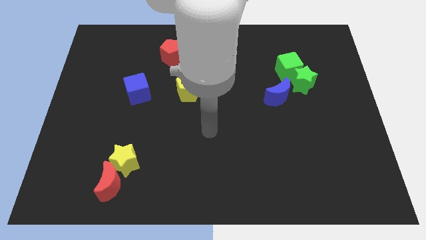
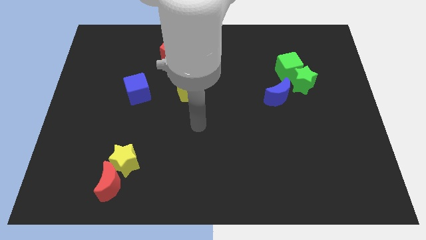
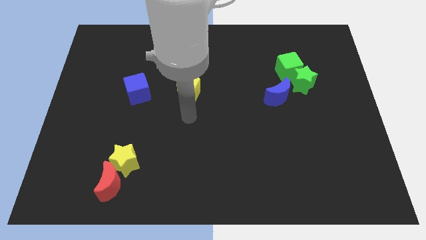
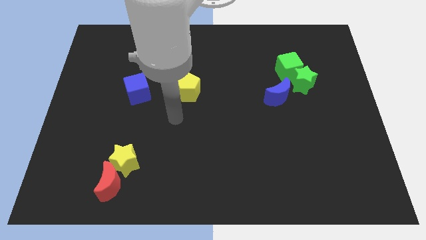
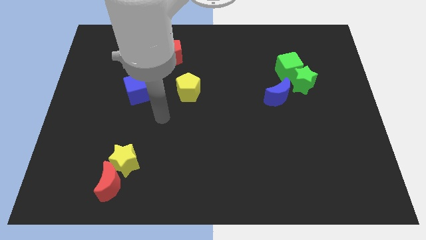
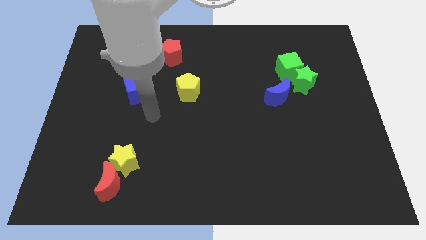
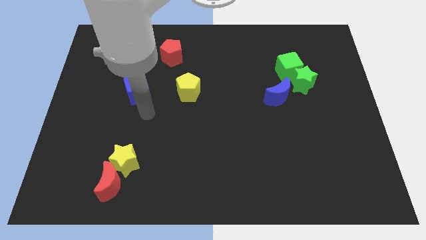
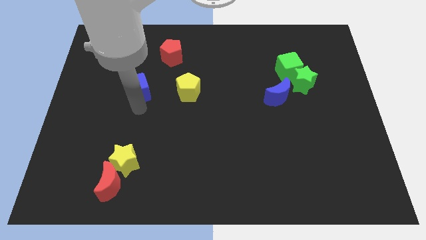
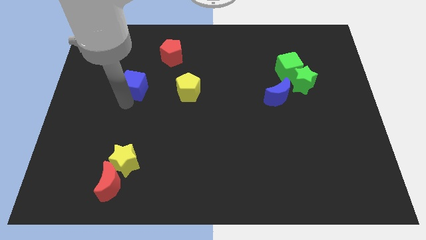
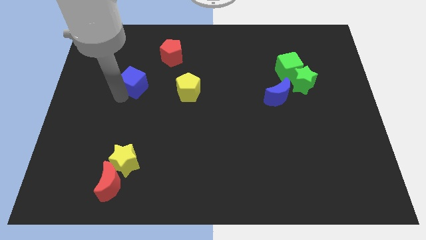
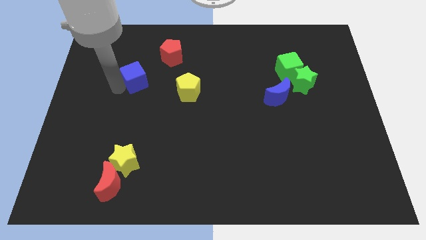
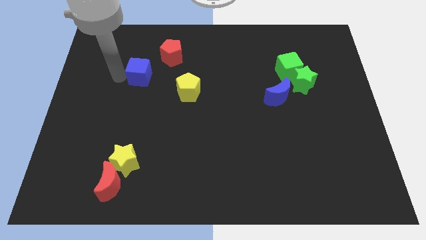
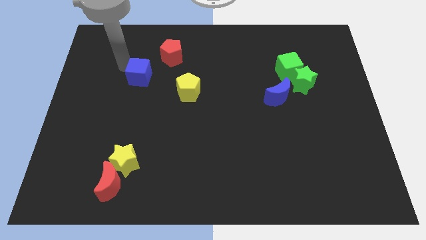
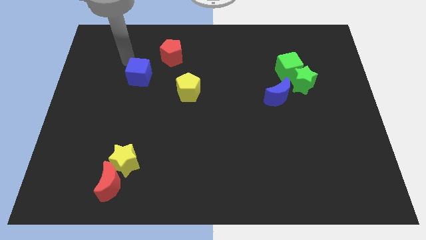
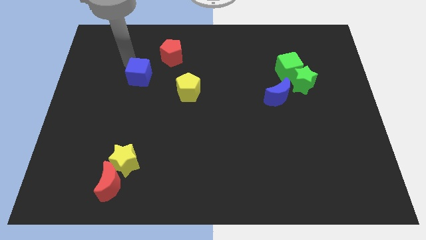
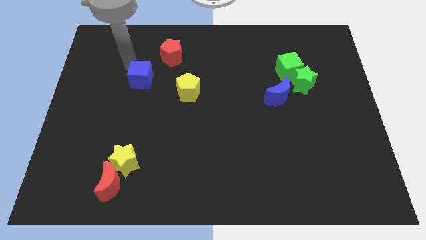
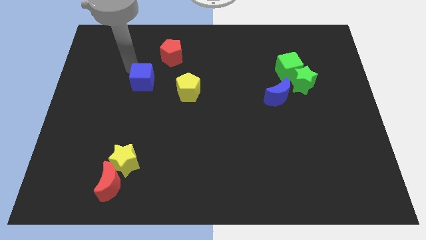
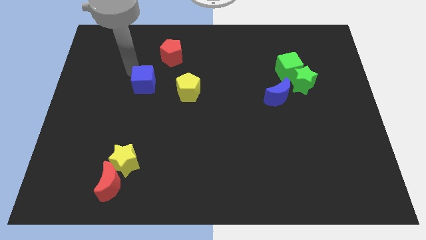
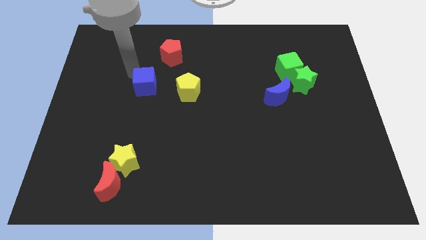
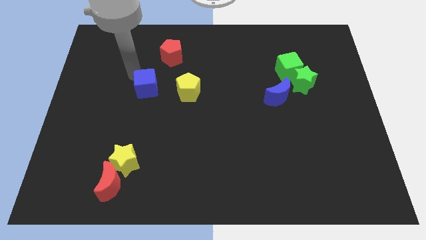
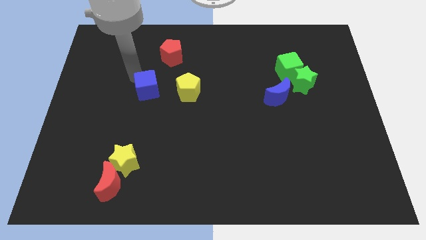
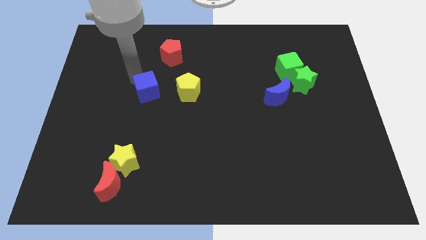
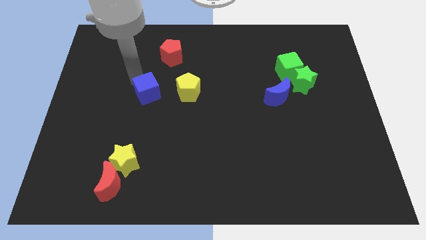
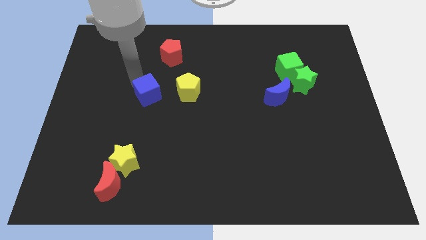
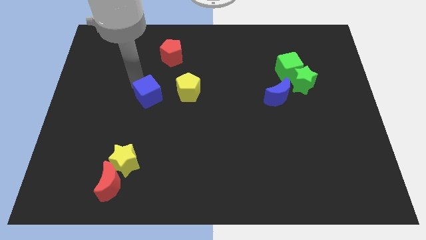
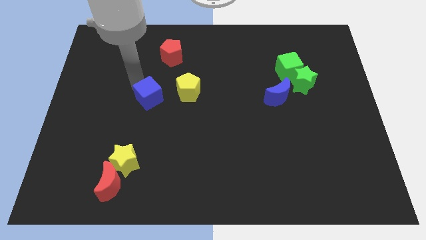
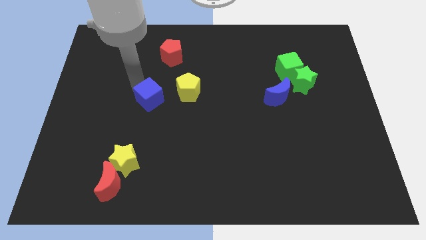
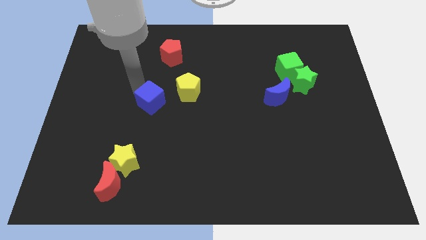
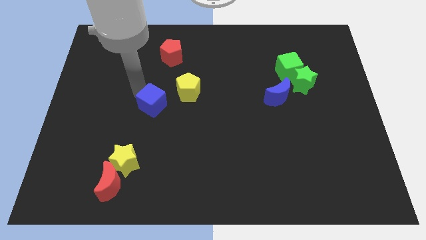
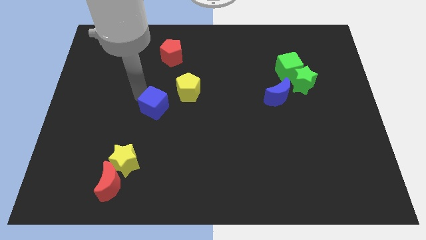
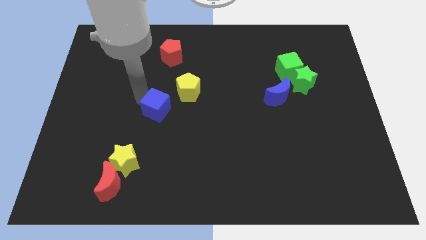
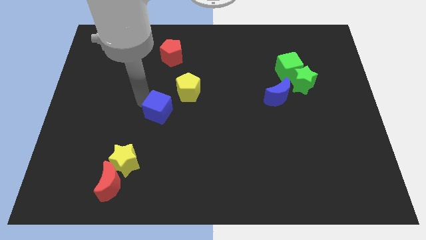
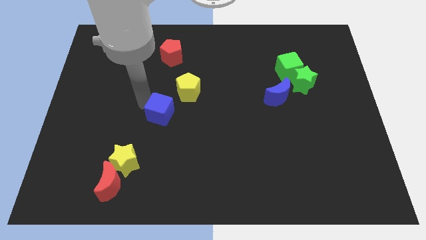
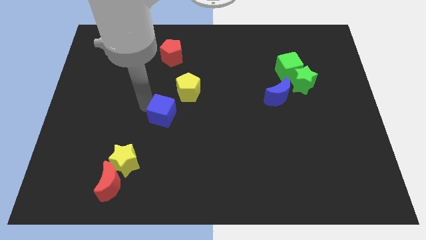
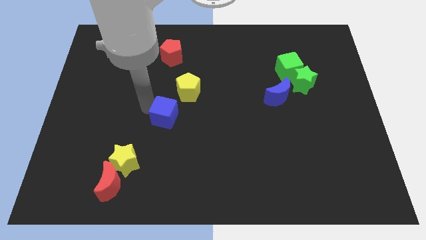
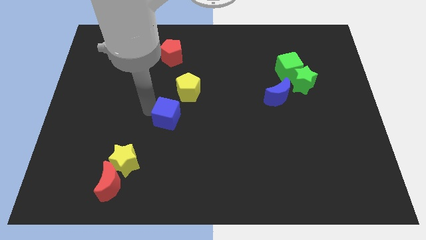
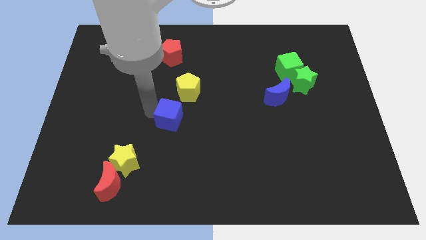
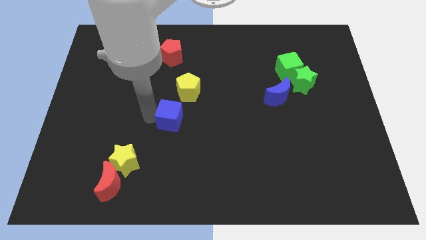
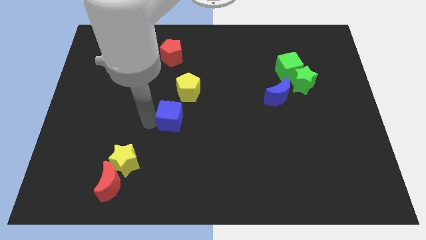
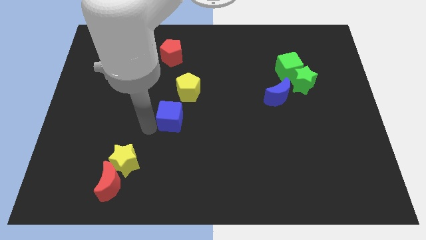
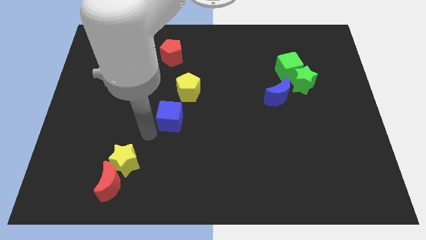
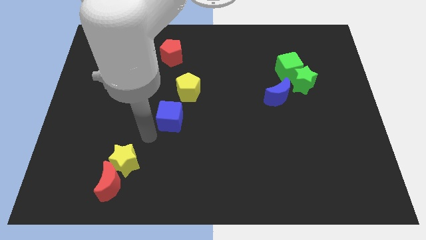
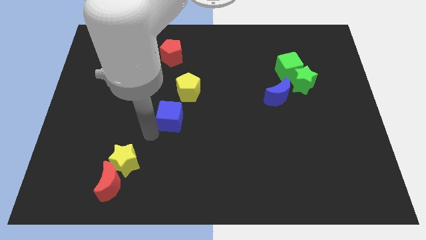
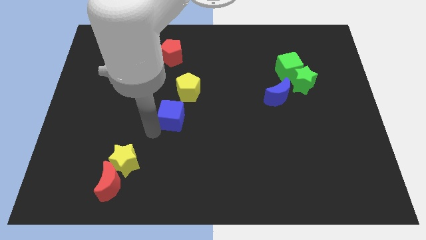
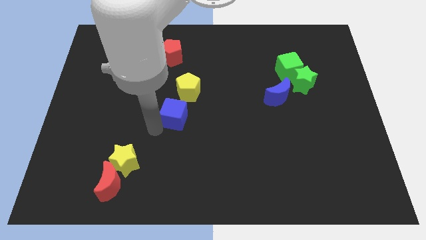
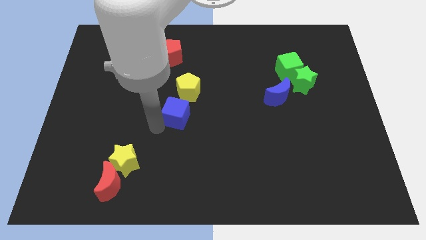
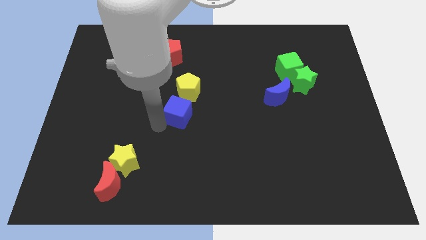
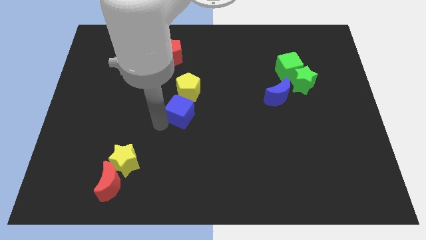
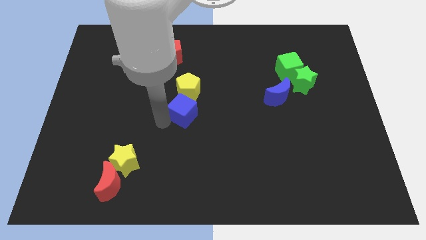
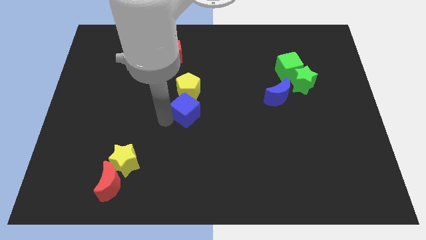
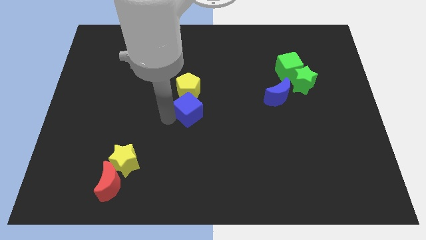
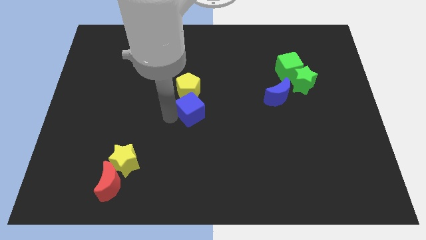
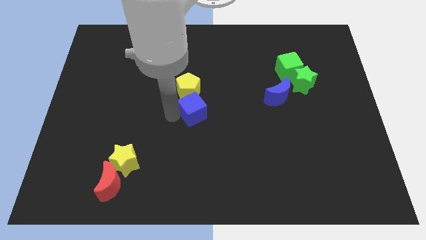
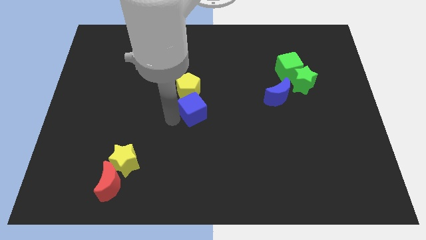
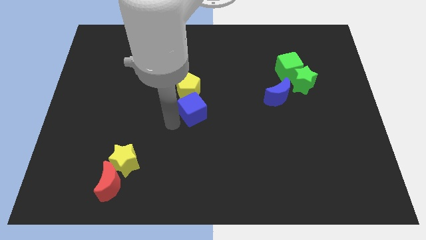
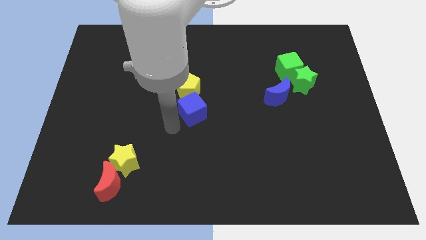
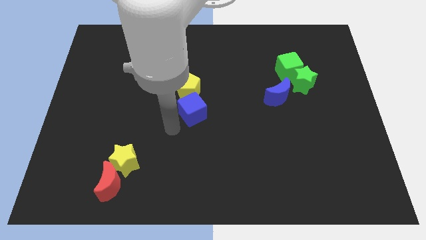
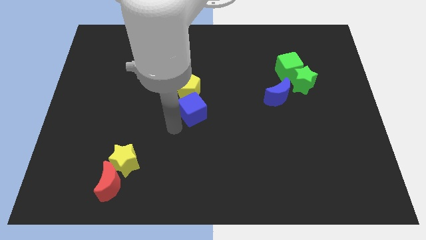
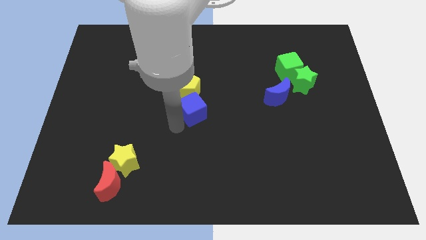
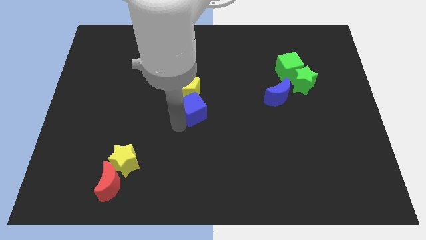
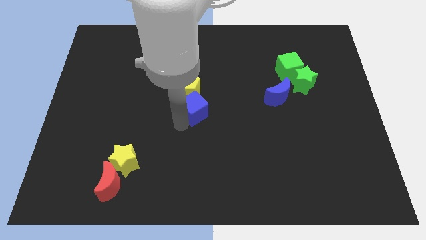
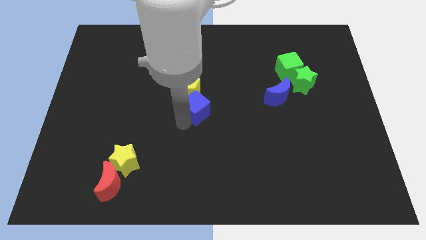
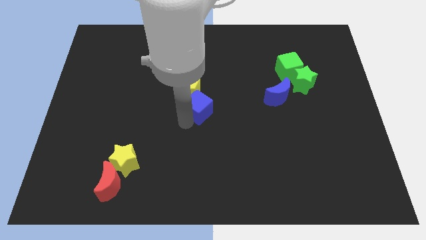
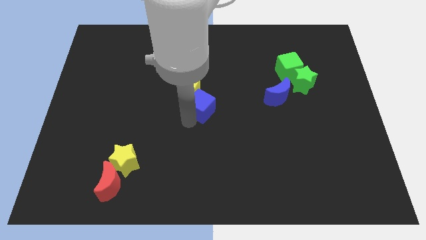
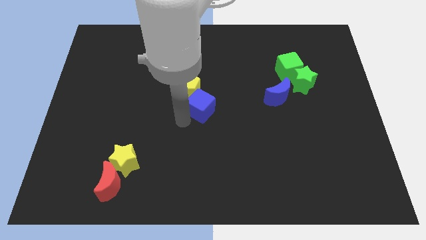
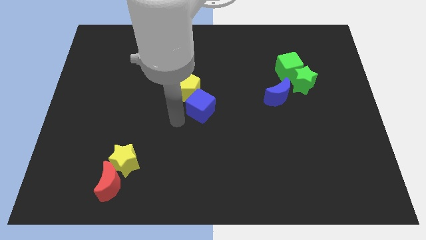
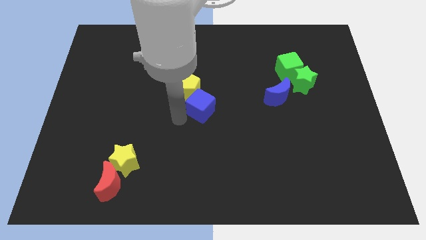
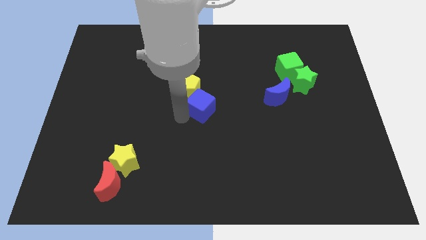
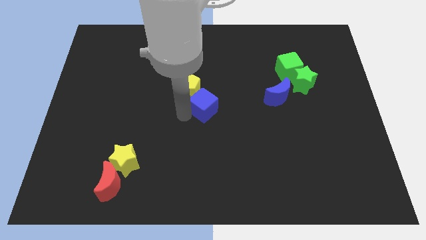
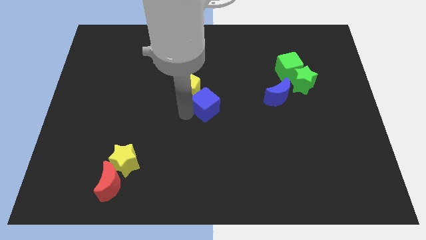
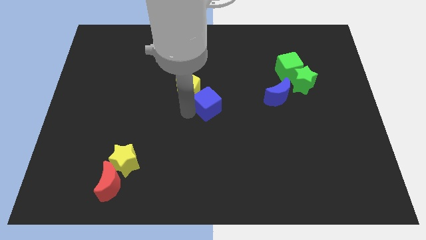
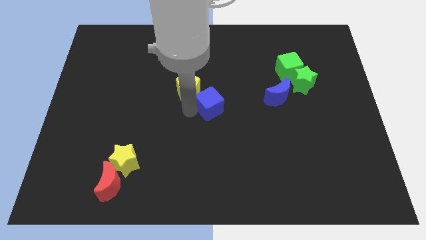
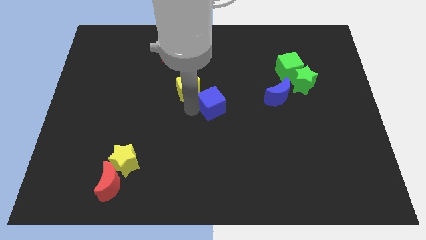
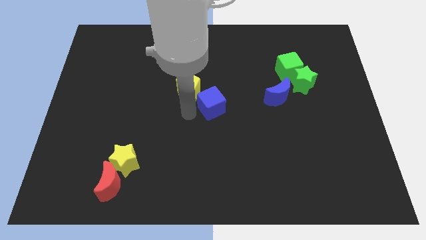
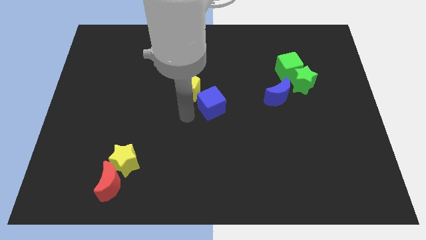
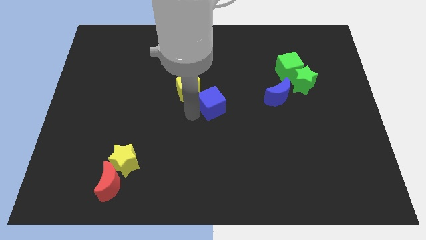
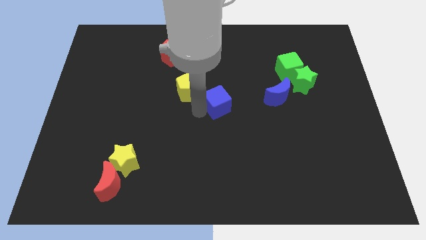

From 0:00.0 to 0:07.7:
move the blue cube left of the blue moon
